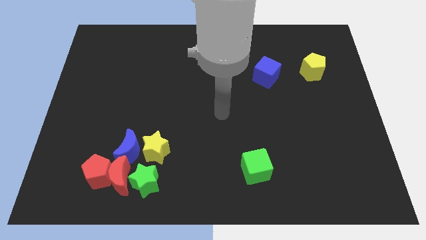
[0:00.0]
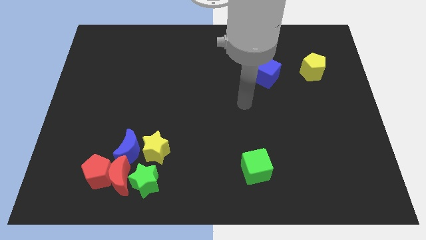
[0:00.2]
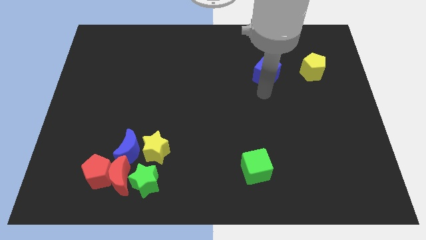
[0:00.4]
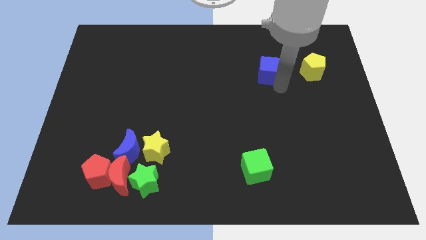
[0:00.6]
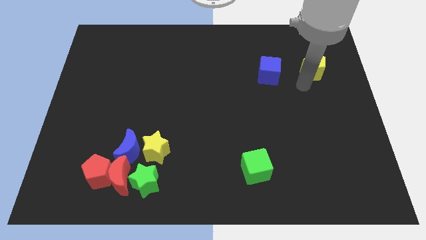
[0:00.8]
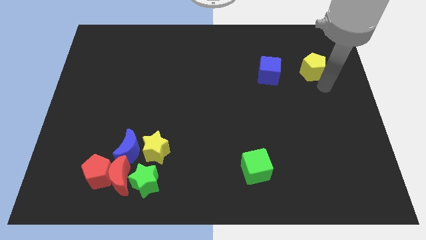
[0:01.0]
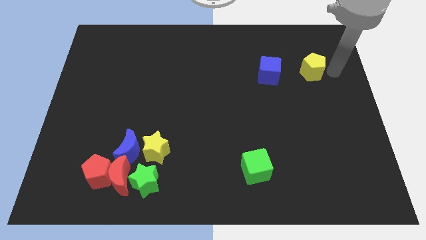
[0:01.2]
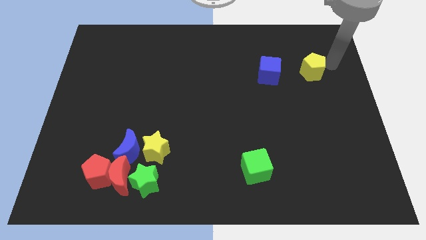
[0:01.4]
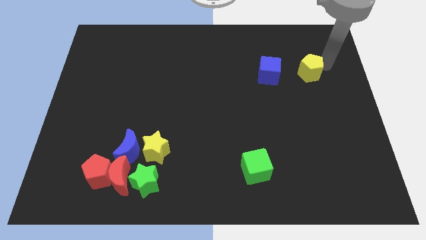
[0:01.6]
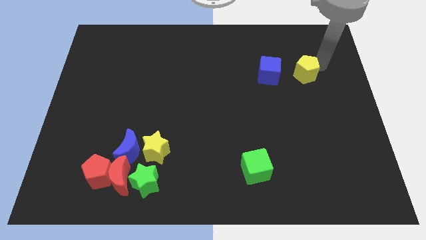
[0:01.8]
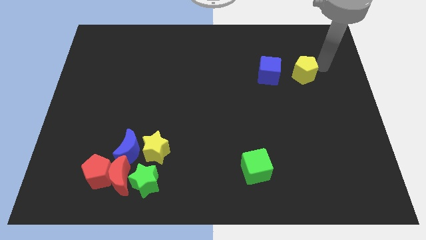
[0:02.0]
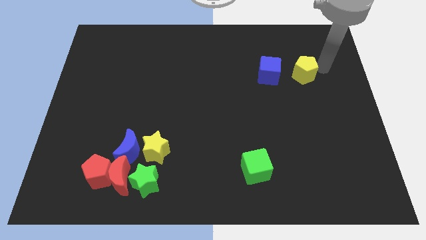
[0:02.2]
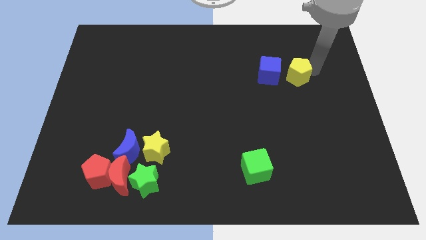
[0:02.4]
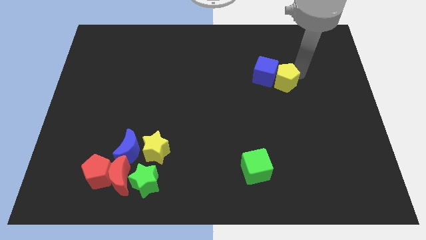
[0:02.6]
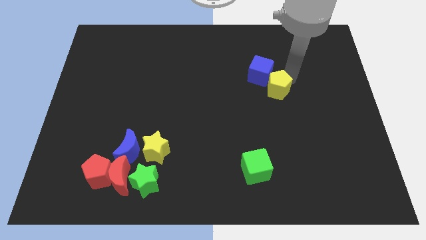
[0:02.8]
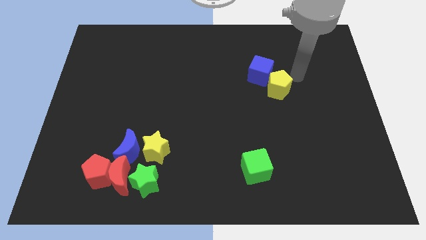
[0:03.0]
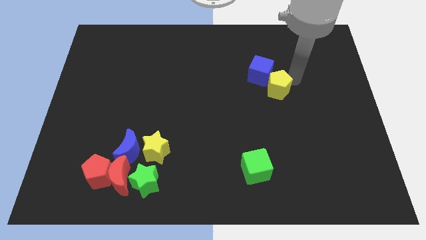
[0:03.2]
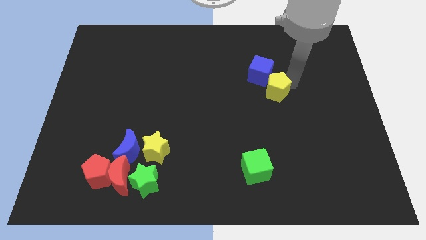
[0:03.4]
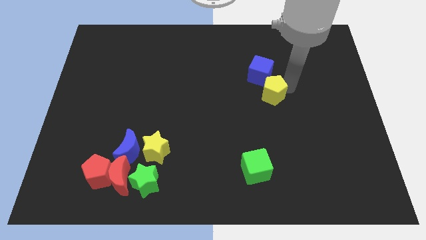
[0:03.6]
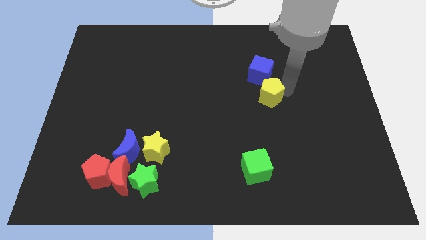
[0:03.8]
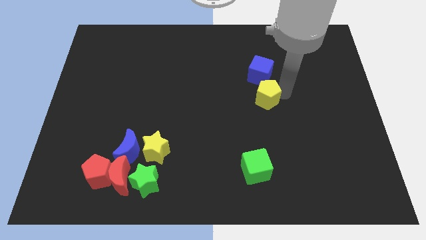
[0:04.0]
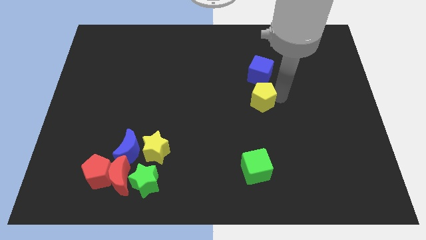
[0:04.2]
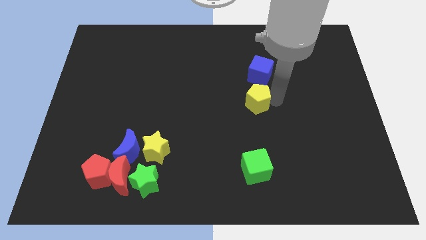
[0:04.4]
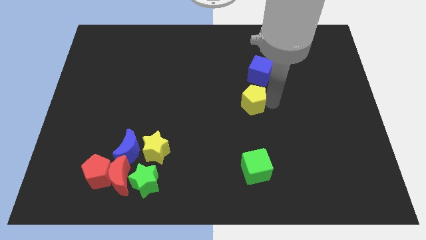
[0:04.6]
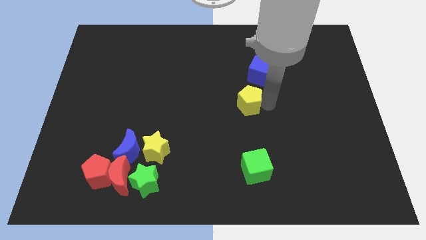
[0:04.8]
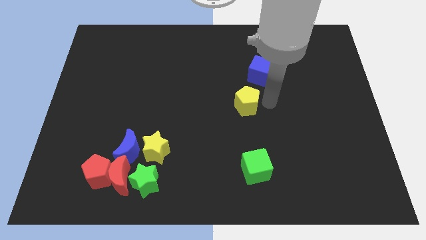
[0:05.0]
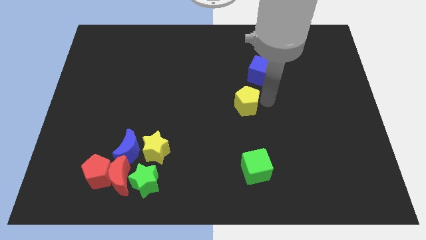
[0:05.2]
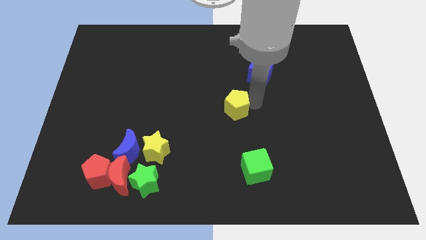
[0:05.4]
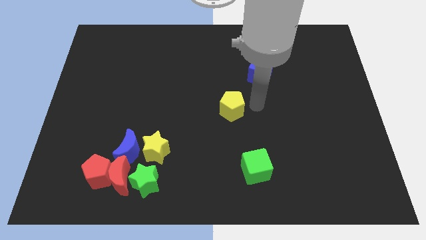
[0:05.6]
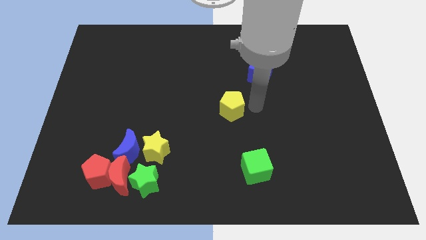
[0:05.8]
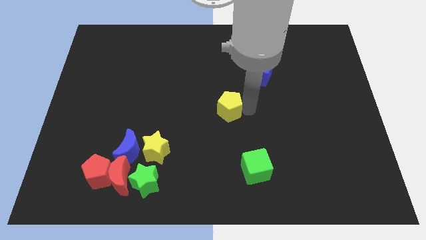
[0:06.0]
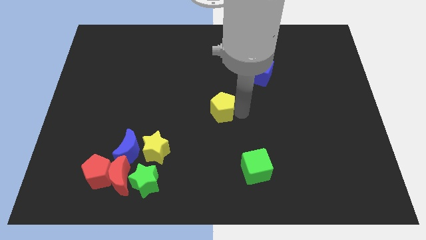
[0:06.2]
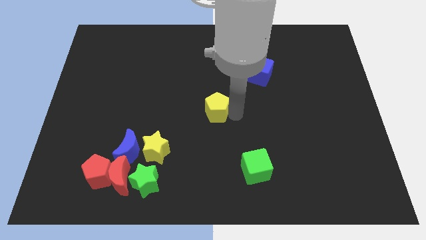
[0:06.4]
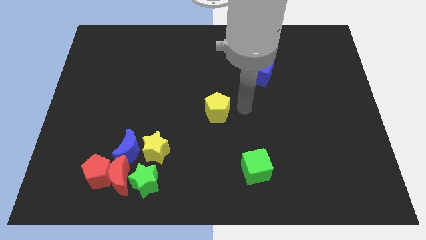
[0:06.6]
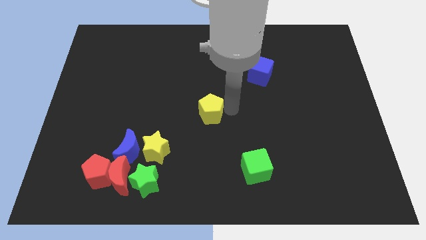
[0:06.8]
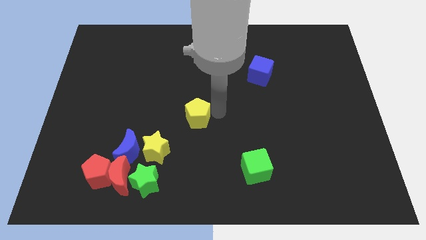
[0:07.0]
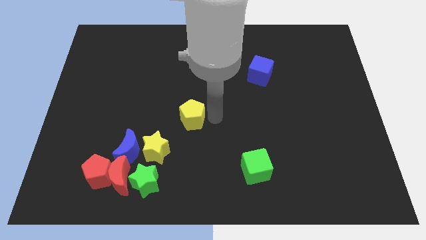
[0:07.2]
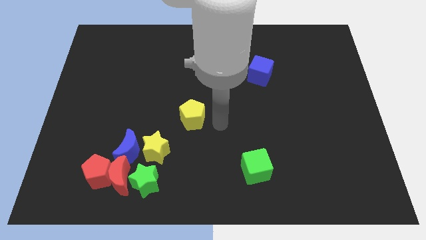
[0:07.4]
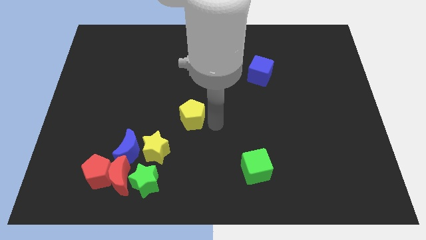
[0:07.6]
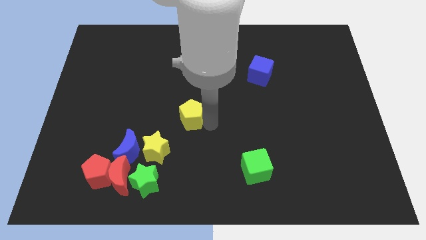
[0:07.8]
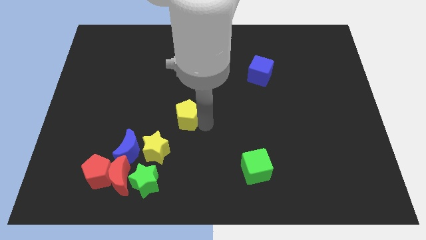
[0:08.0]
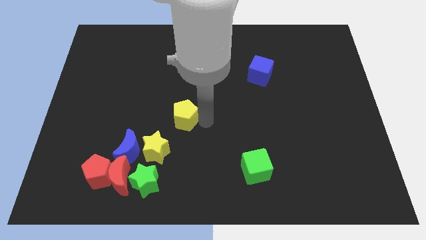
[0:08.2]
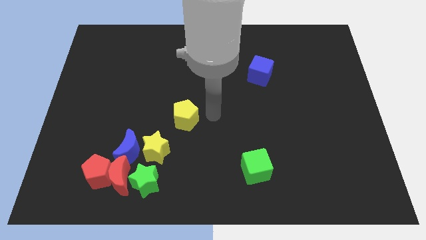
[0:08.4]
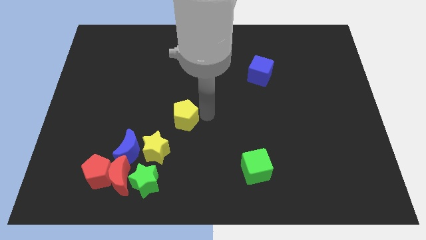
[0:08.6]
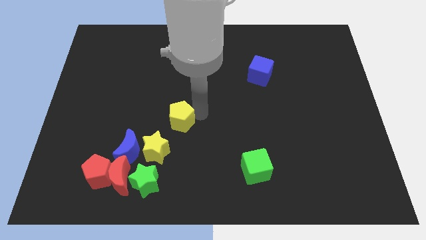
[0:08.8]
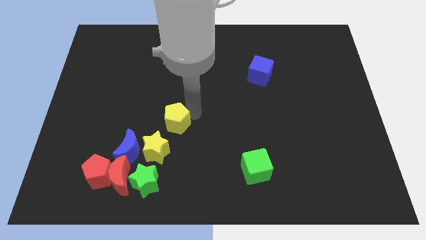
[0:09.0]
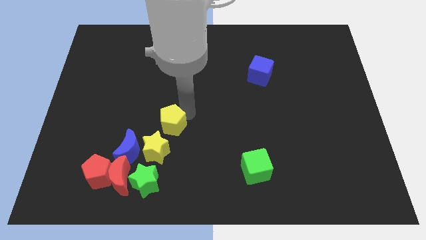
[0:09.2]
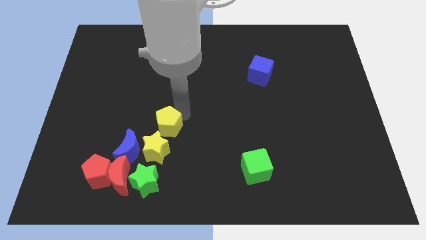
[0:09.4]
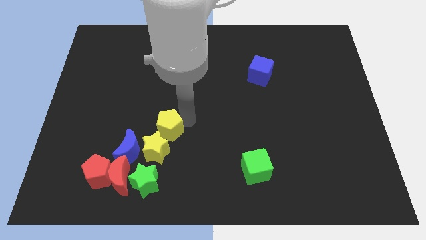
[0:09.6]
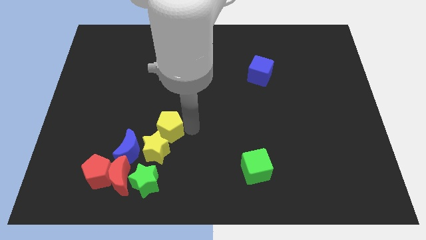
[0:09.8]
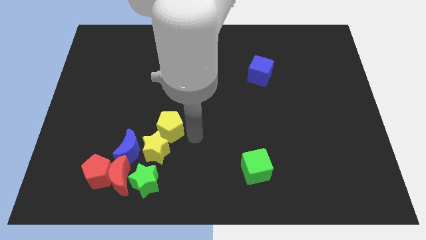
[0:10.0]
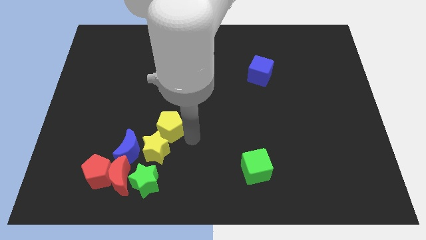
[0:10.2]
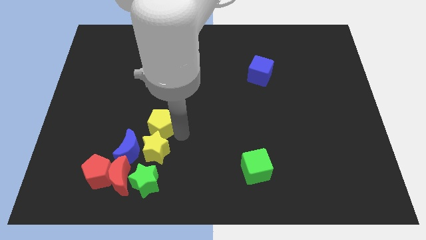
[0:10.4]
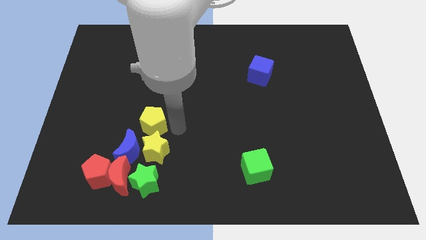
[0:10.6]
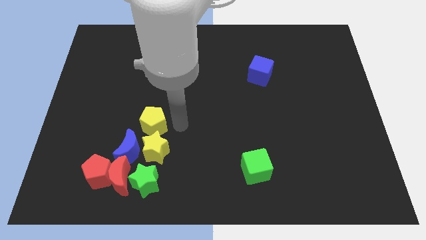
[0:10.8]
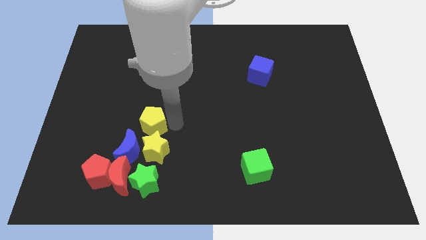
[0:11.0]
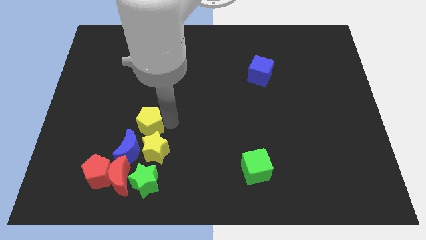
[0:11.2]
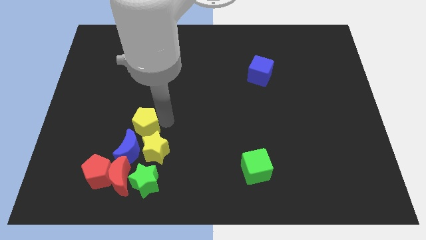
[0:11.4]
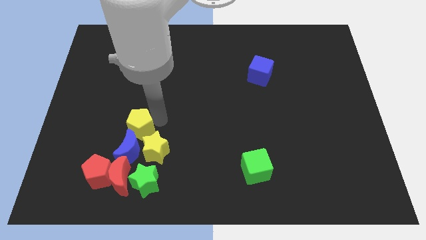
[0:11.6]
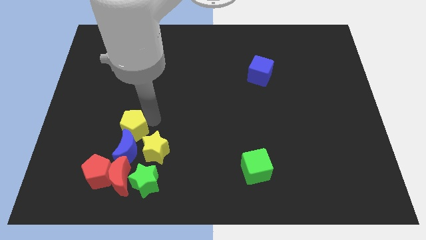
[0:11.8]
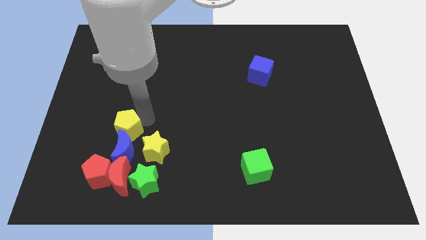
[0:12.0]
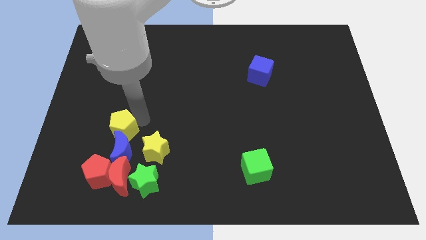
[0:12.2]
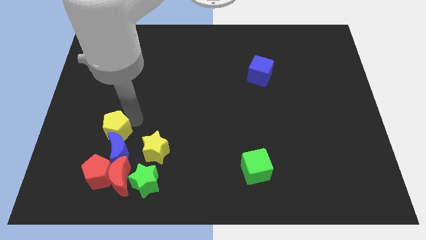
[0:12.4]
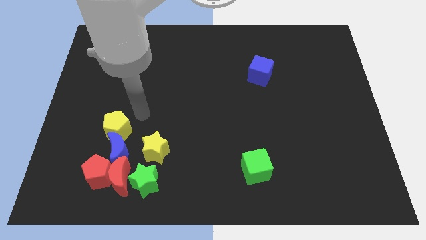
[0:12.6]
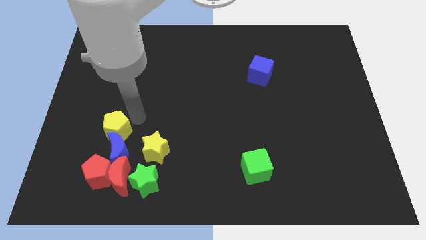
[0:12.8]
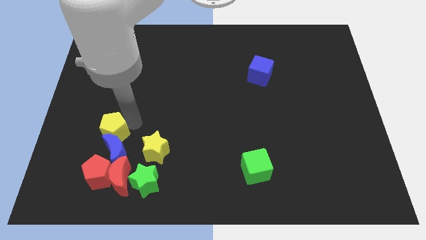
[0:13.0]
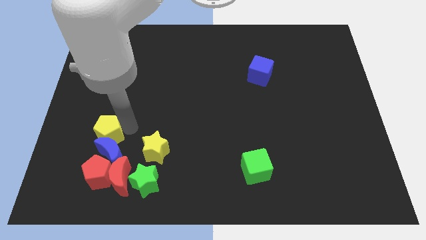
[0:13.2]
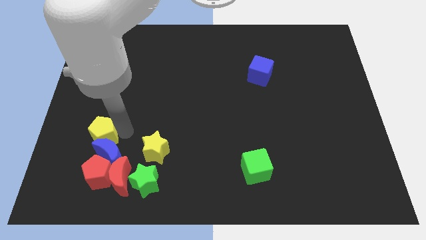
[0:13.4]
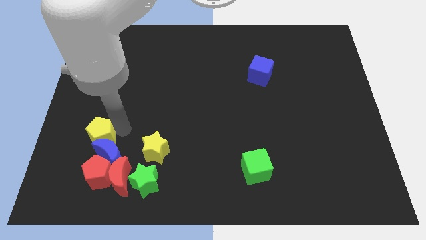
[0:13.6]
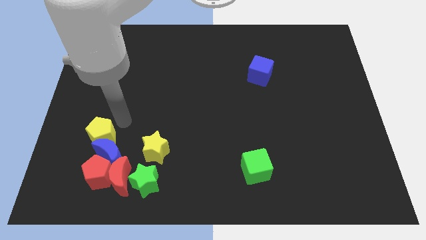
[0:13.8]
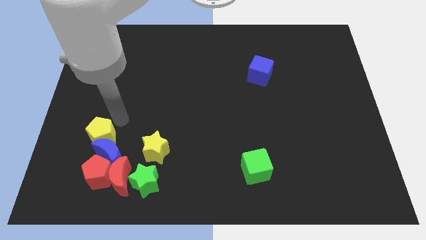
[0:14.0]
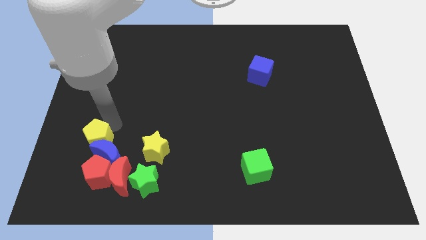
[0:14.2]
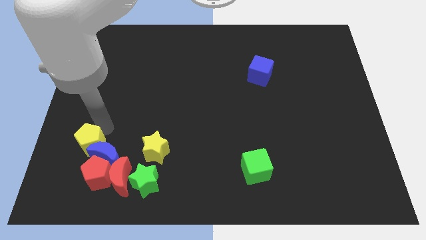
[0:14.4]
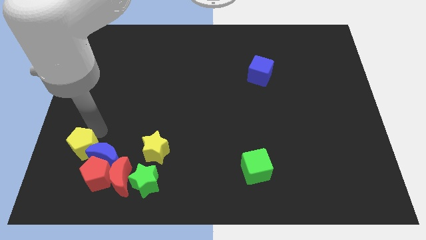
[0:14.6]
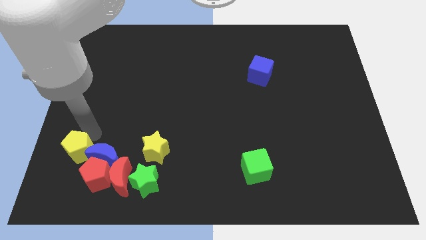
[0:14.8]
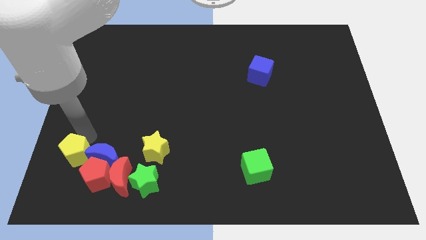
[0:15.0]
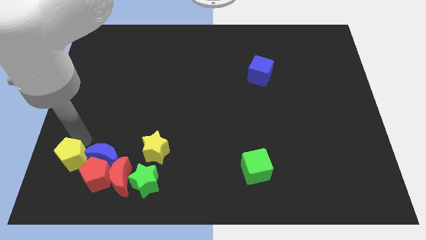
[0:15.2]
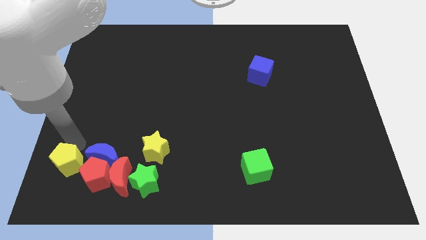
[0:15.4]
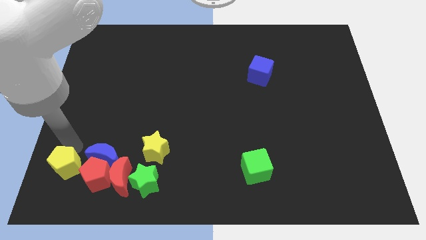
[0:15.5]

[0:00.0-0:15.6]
push the yellow pentagon to the bottom left corner
